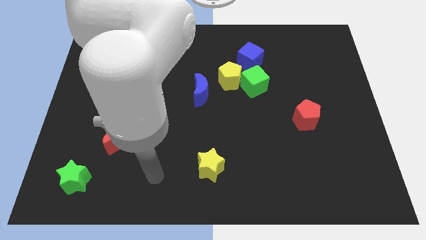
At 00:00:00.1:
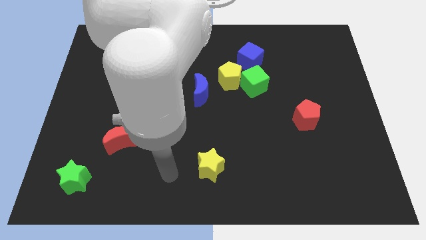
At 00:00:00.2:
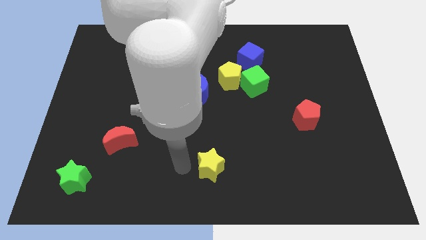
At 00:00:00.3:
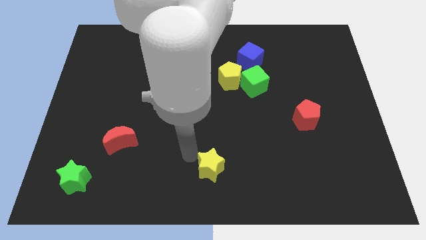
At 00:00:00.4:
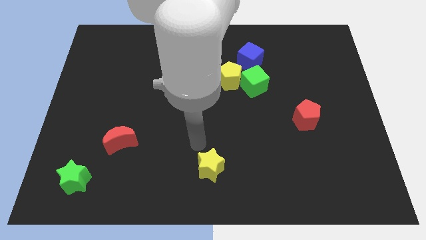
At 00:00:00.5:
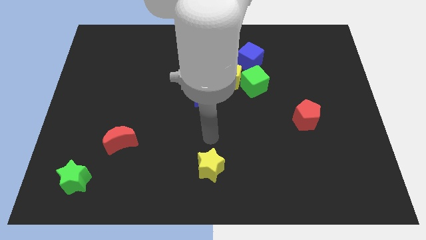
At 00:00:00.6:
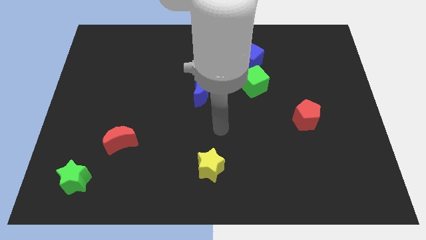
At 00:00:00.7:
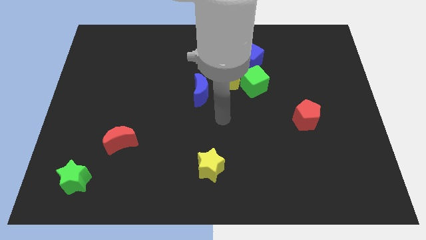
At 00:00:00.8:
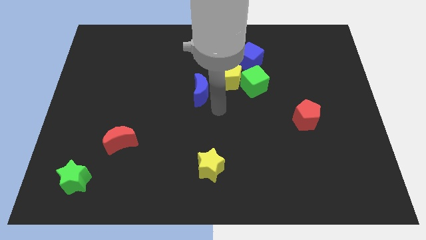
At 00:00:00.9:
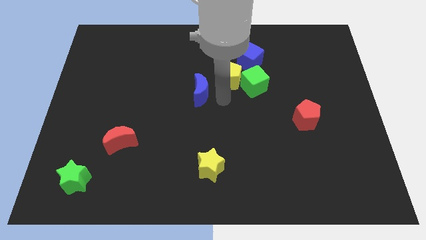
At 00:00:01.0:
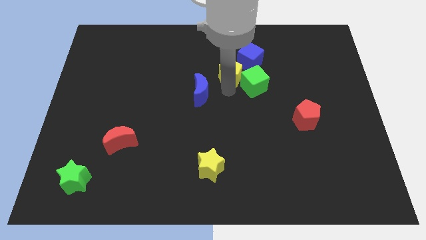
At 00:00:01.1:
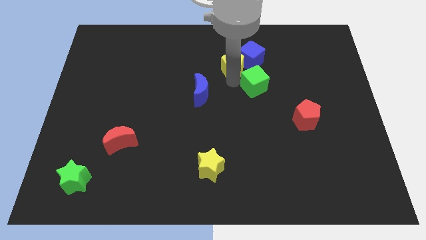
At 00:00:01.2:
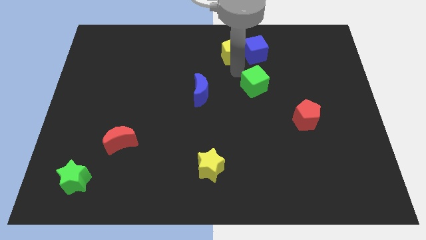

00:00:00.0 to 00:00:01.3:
move the green cube away from the yellow pentagon and blue cube

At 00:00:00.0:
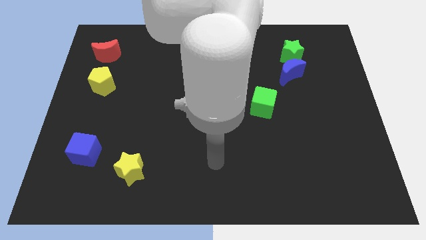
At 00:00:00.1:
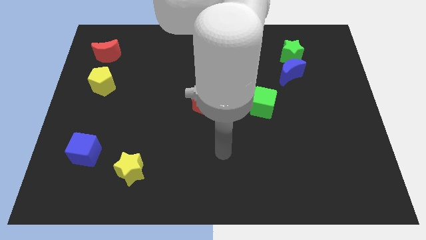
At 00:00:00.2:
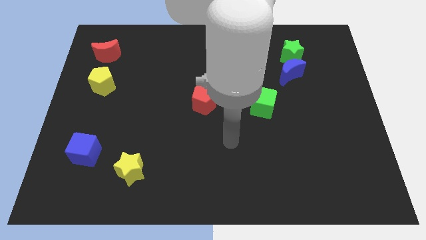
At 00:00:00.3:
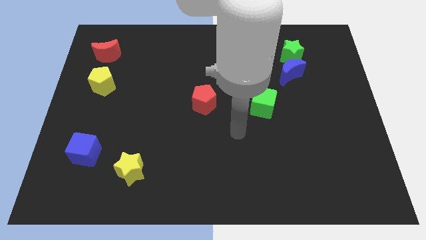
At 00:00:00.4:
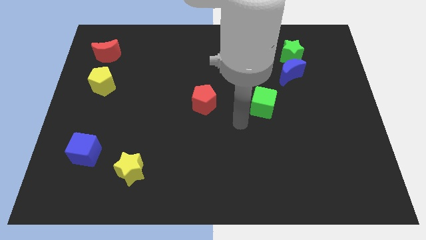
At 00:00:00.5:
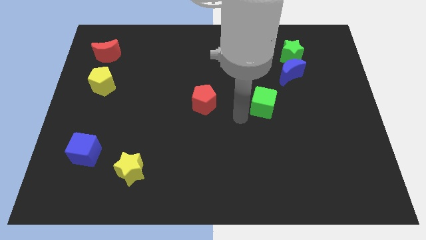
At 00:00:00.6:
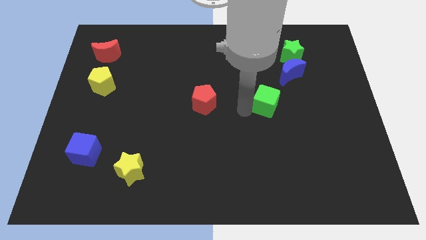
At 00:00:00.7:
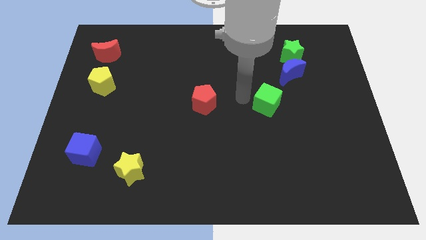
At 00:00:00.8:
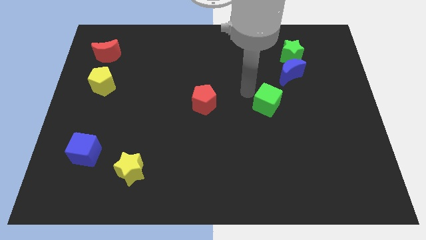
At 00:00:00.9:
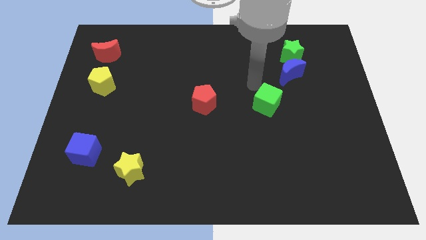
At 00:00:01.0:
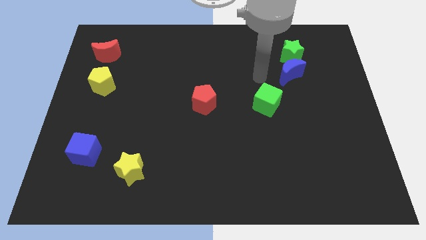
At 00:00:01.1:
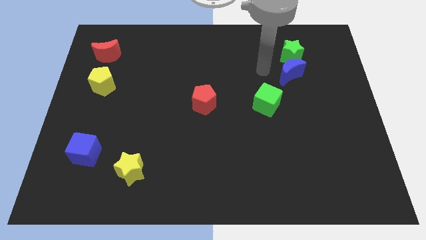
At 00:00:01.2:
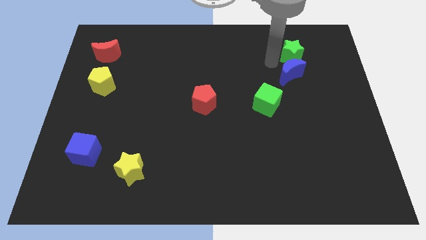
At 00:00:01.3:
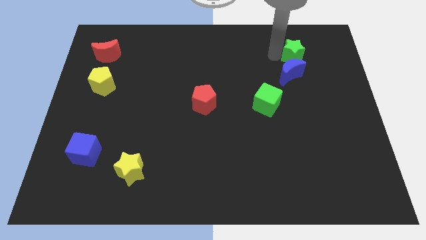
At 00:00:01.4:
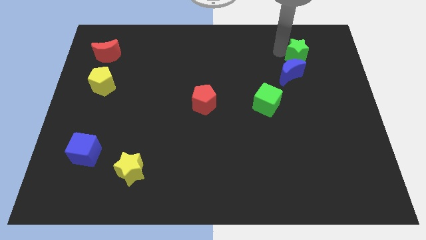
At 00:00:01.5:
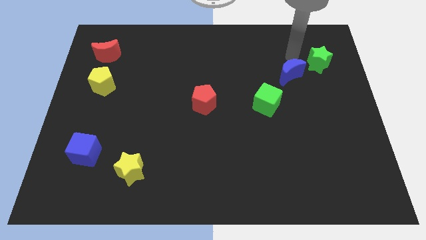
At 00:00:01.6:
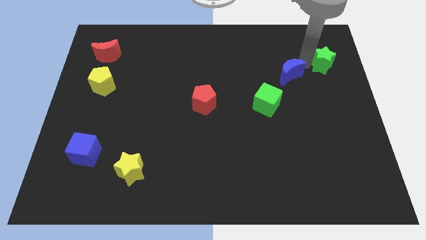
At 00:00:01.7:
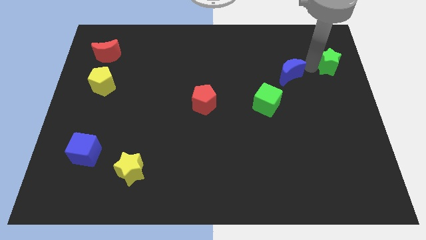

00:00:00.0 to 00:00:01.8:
move the blue moon away from the green star

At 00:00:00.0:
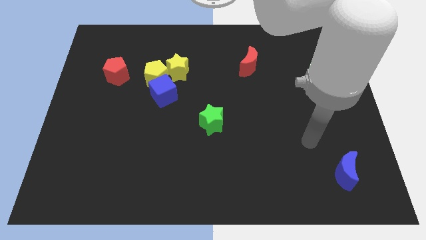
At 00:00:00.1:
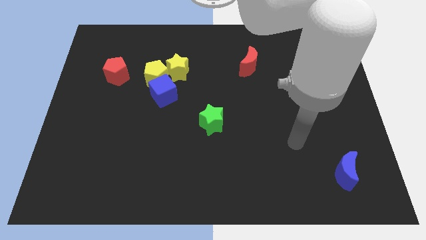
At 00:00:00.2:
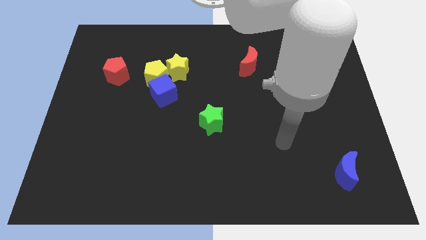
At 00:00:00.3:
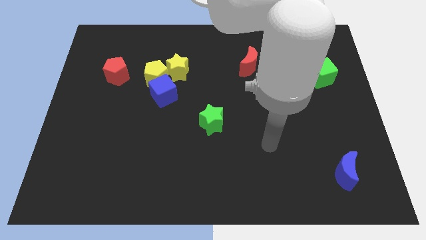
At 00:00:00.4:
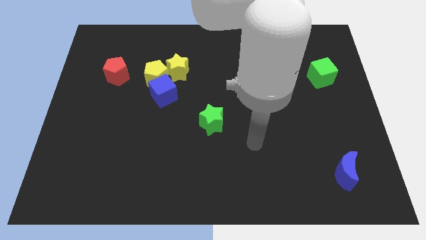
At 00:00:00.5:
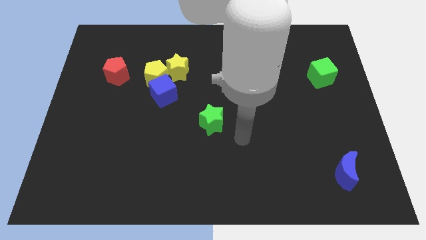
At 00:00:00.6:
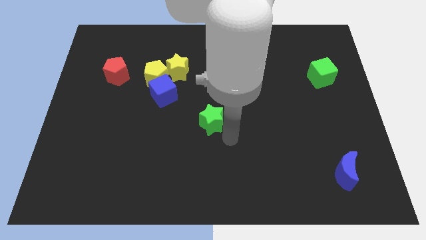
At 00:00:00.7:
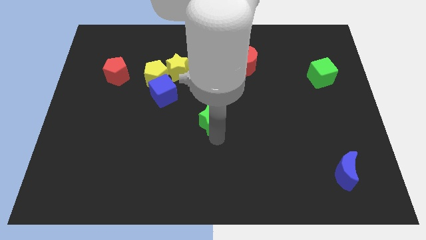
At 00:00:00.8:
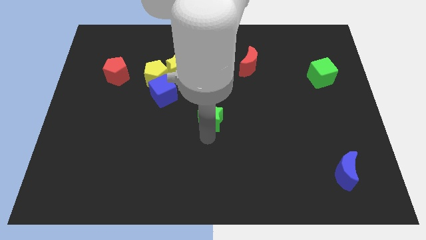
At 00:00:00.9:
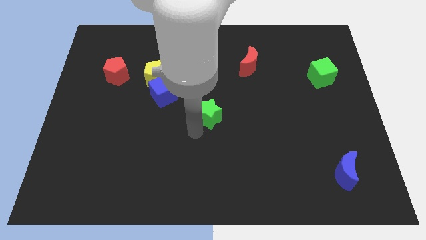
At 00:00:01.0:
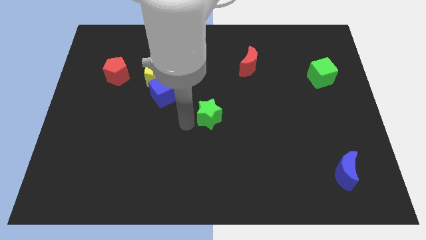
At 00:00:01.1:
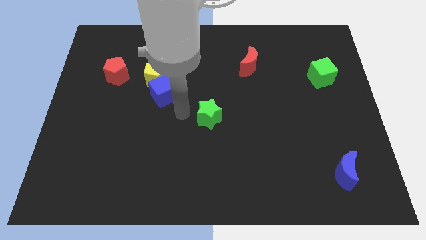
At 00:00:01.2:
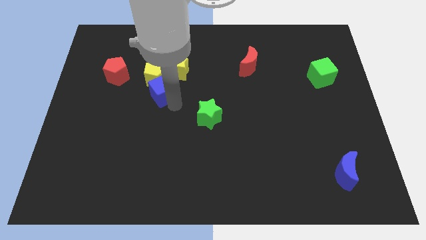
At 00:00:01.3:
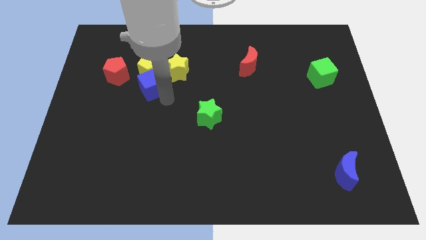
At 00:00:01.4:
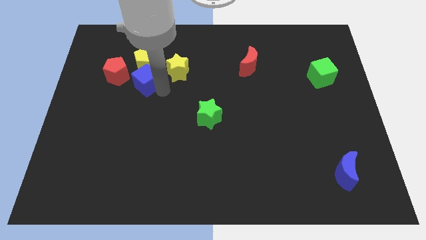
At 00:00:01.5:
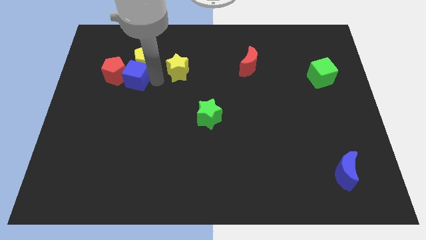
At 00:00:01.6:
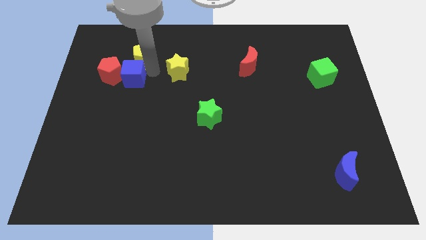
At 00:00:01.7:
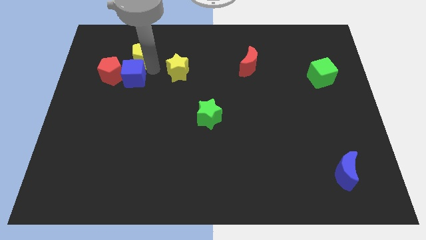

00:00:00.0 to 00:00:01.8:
separate the yellow star from the yellow pentagon and blue cube

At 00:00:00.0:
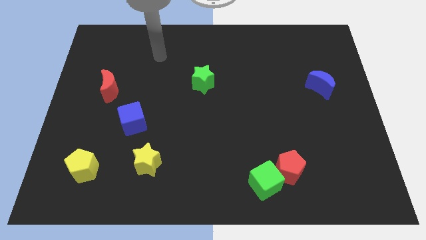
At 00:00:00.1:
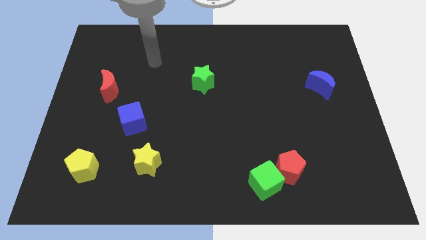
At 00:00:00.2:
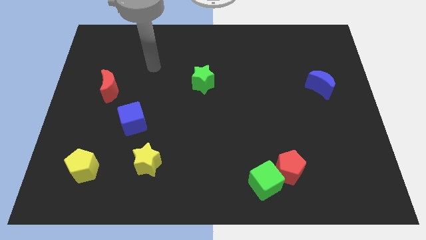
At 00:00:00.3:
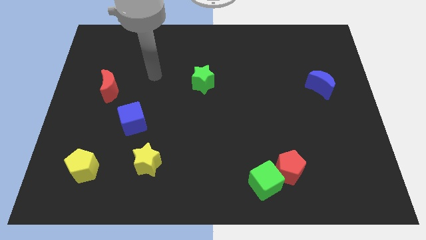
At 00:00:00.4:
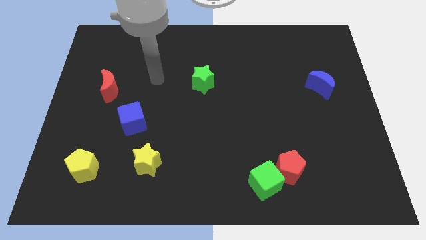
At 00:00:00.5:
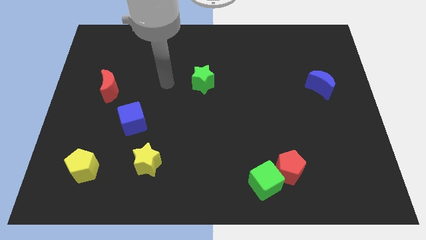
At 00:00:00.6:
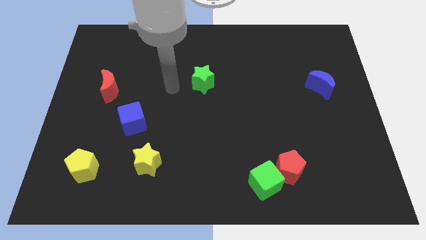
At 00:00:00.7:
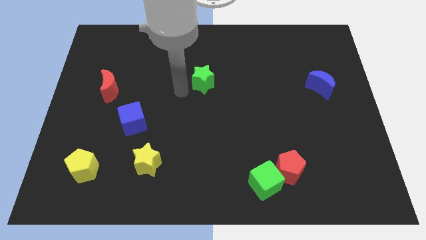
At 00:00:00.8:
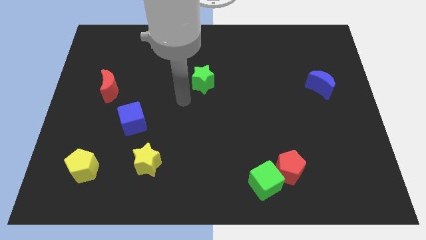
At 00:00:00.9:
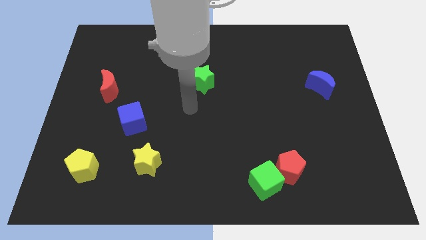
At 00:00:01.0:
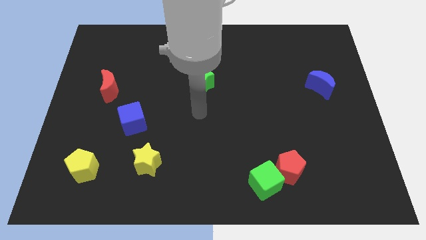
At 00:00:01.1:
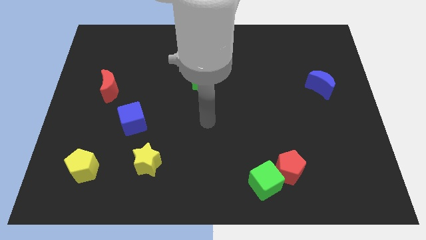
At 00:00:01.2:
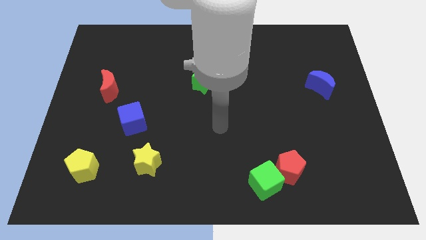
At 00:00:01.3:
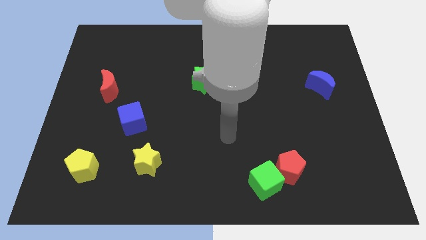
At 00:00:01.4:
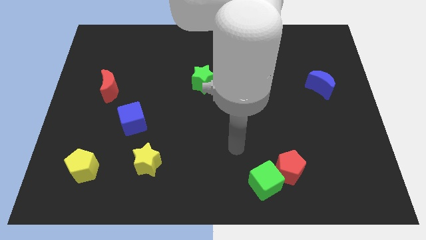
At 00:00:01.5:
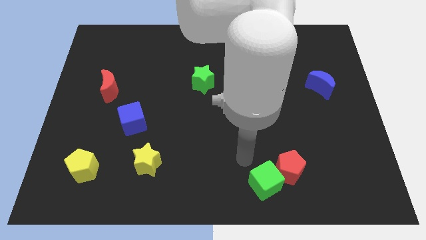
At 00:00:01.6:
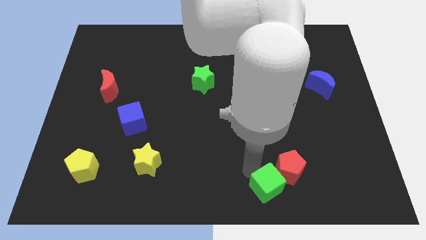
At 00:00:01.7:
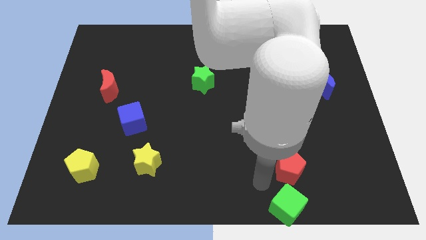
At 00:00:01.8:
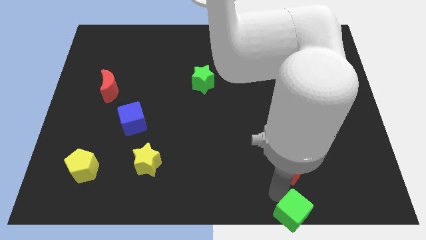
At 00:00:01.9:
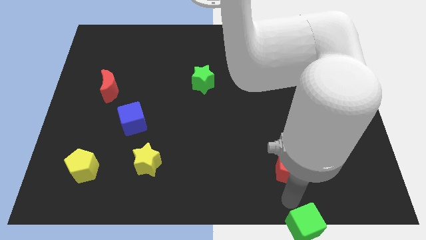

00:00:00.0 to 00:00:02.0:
move the red pentagon away from the green cube

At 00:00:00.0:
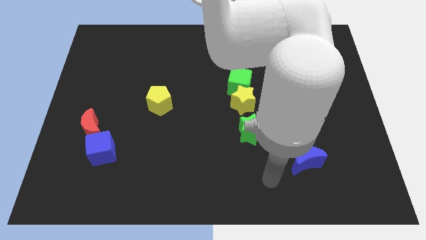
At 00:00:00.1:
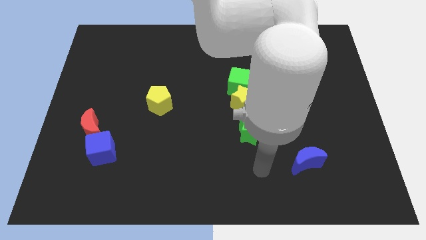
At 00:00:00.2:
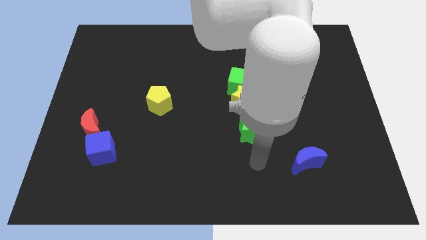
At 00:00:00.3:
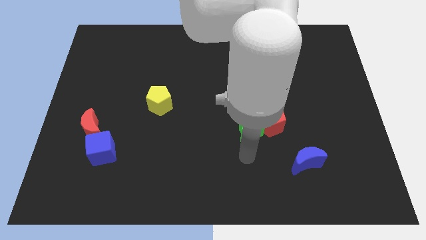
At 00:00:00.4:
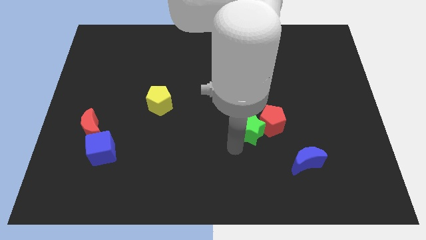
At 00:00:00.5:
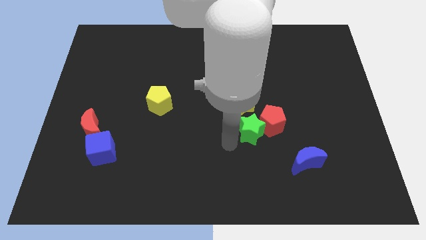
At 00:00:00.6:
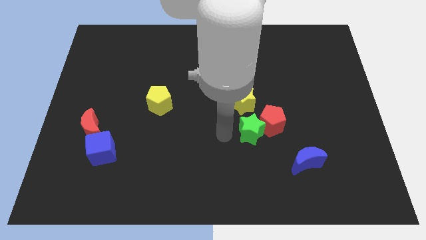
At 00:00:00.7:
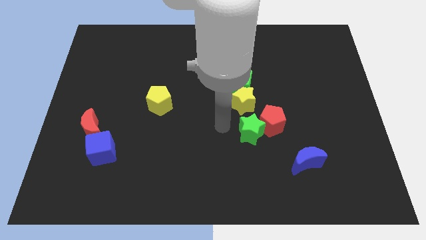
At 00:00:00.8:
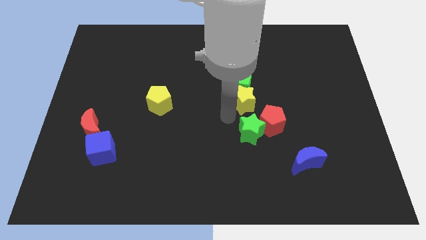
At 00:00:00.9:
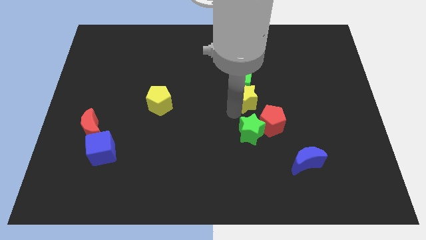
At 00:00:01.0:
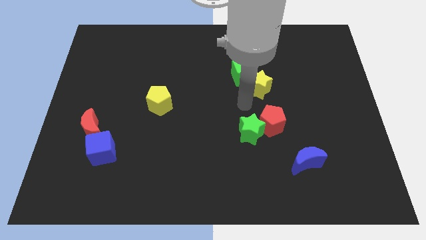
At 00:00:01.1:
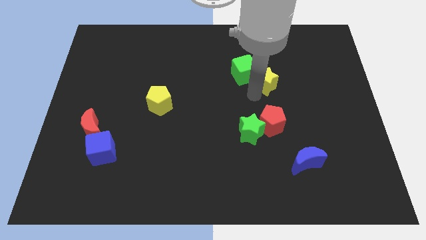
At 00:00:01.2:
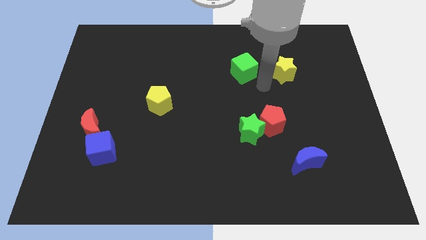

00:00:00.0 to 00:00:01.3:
pull the green cube apart from the yellow star

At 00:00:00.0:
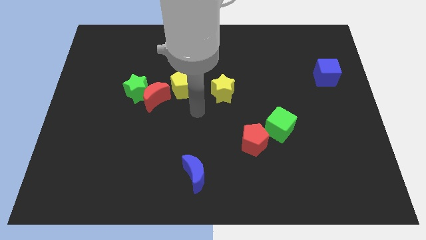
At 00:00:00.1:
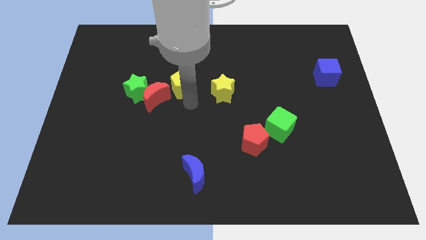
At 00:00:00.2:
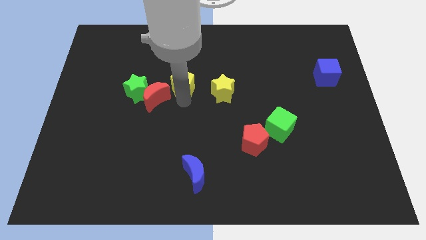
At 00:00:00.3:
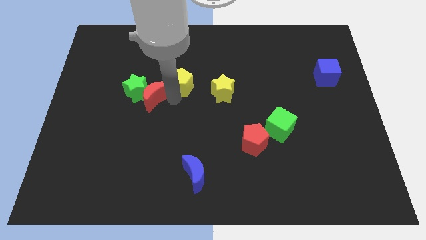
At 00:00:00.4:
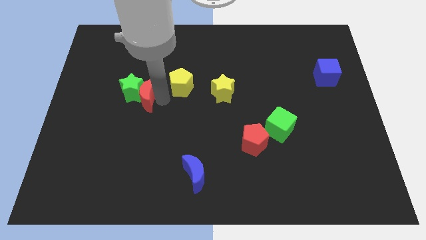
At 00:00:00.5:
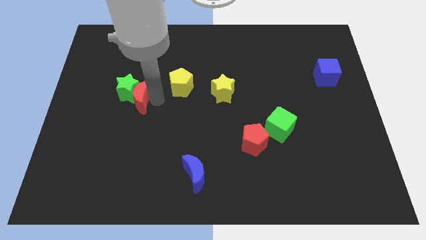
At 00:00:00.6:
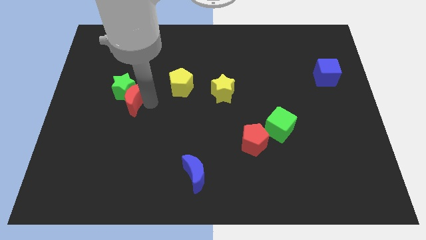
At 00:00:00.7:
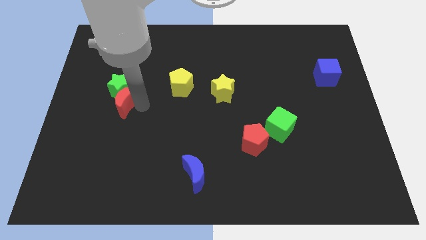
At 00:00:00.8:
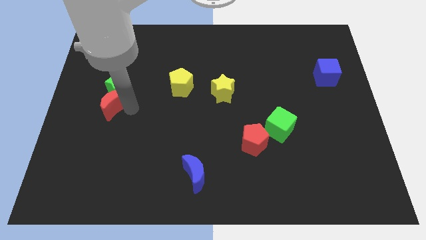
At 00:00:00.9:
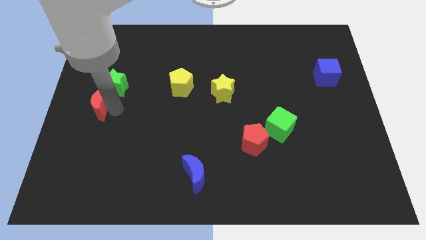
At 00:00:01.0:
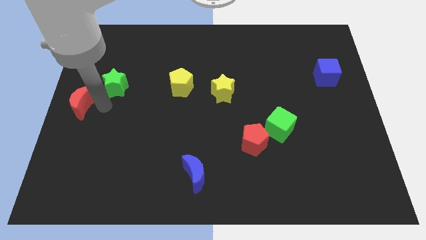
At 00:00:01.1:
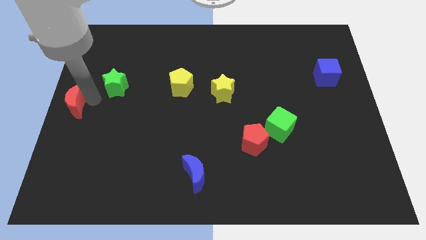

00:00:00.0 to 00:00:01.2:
pull the green star apart from the red moon
